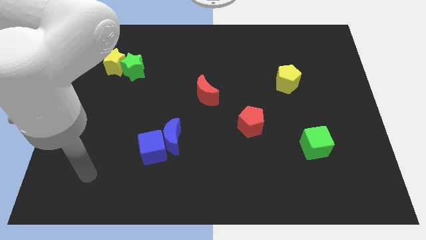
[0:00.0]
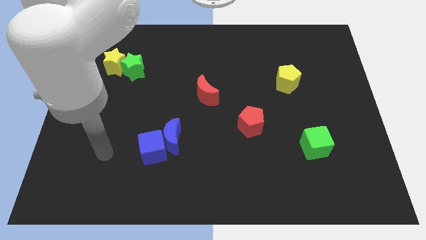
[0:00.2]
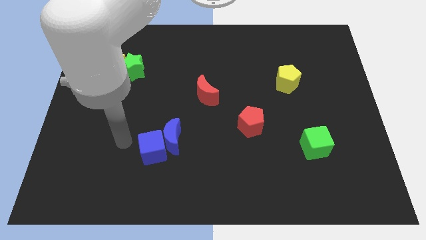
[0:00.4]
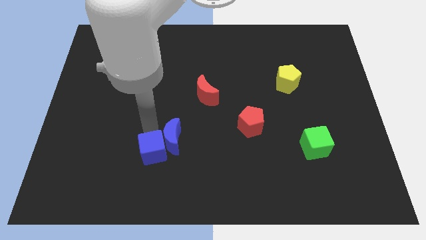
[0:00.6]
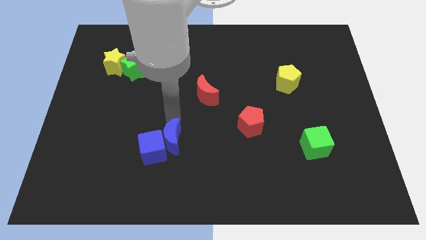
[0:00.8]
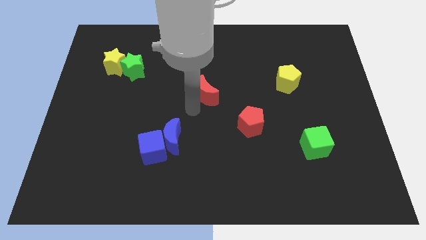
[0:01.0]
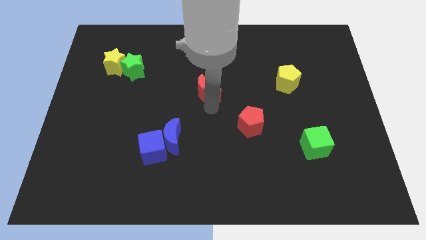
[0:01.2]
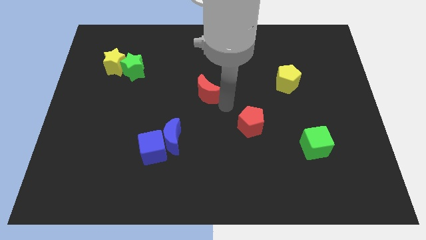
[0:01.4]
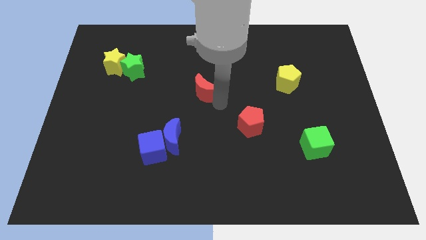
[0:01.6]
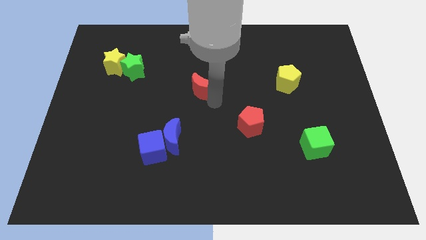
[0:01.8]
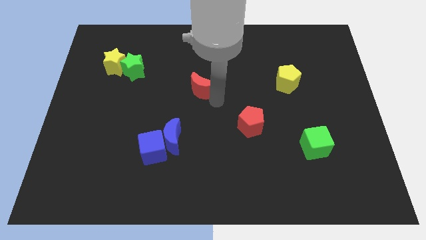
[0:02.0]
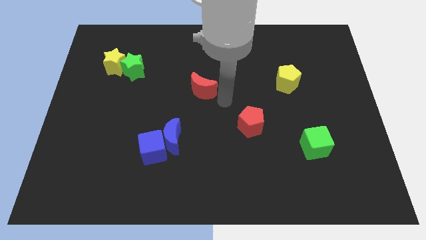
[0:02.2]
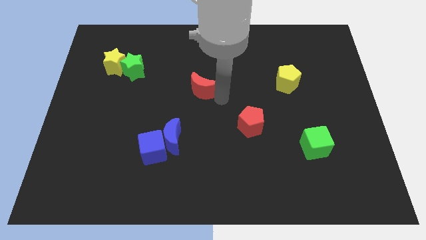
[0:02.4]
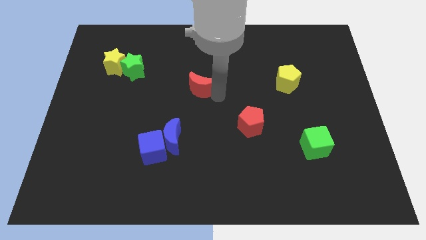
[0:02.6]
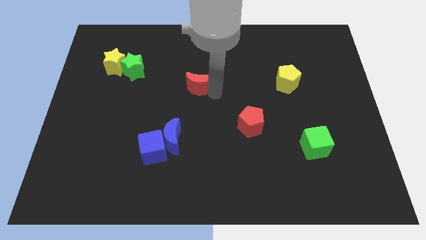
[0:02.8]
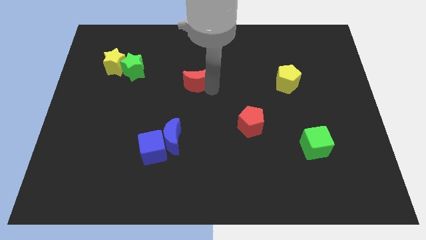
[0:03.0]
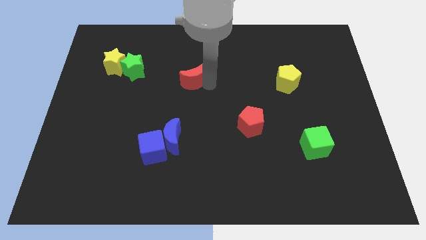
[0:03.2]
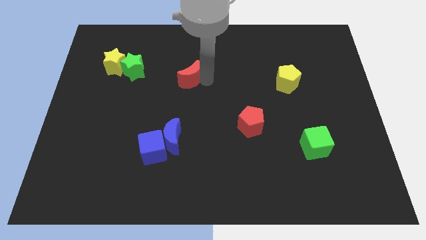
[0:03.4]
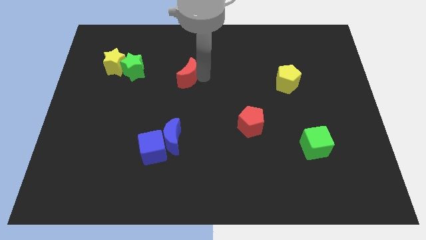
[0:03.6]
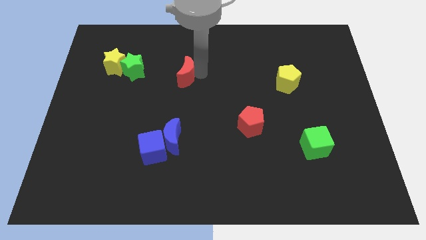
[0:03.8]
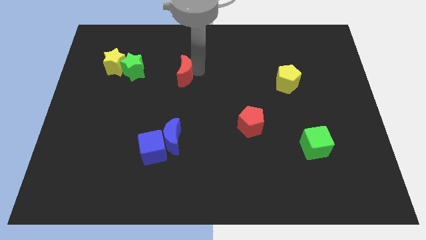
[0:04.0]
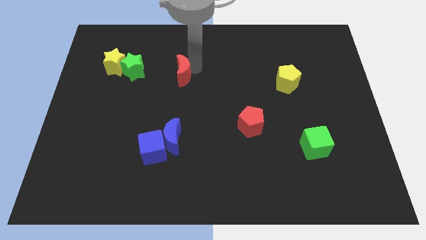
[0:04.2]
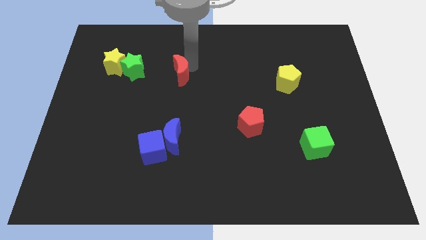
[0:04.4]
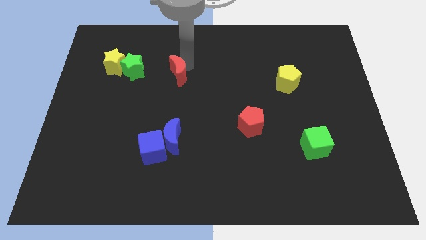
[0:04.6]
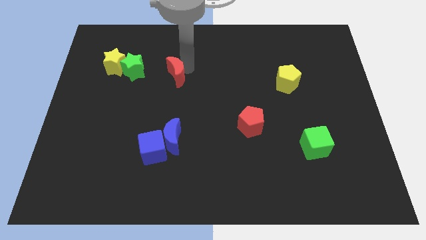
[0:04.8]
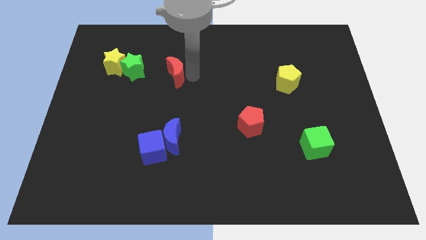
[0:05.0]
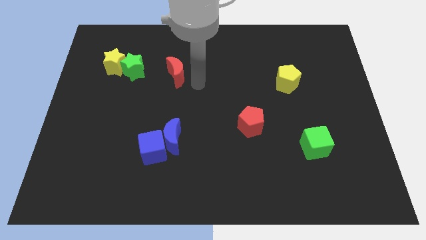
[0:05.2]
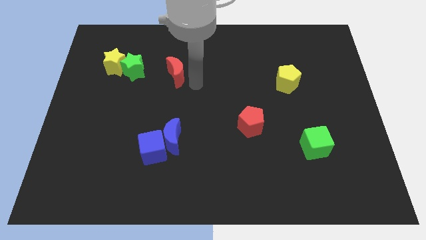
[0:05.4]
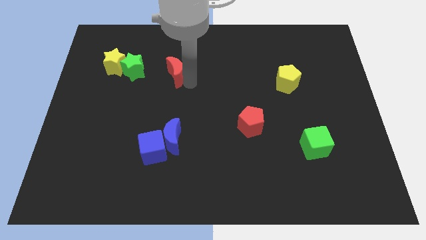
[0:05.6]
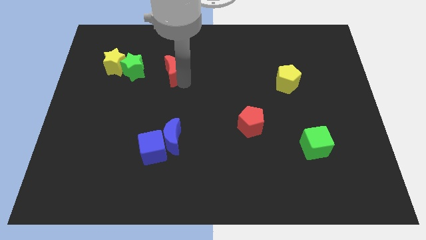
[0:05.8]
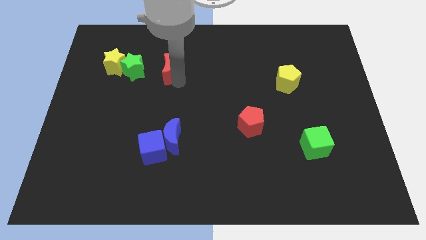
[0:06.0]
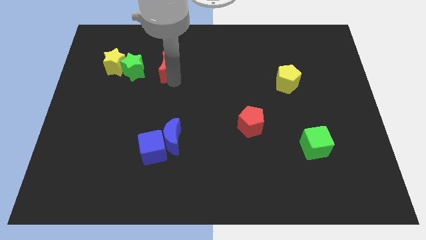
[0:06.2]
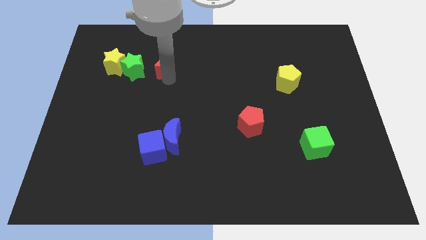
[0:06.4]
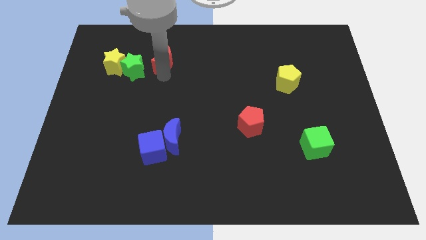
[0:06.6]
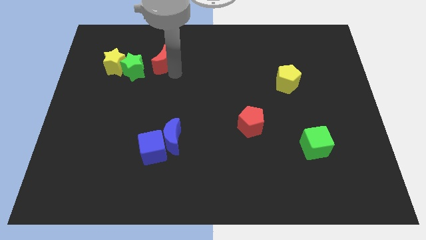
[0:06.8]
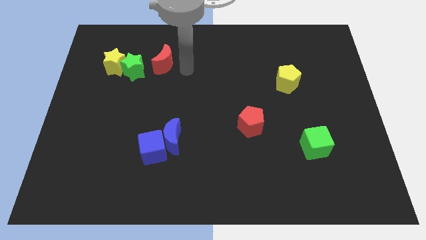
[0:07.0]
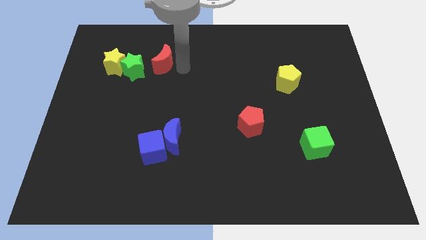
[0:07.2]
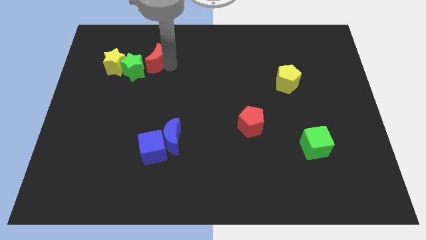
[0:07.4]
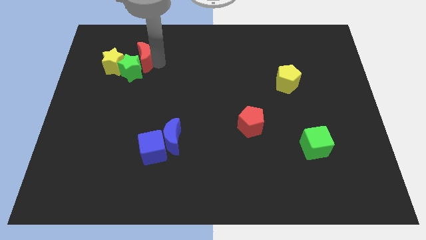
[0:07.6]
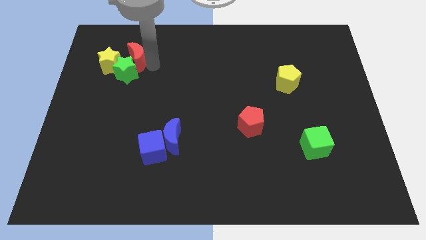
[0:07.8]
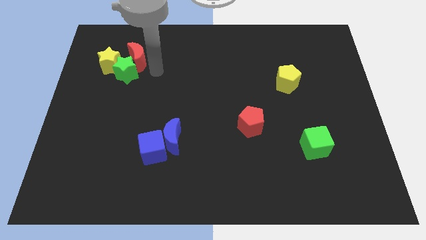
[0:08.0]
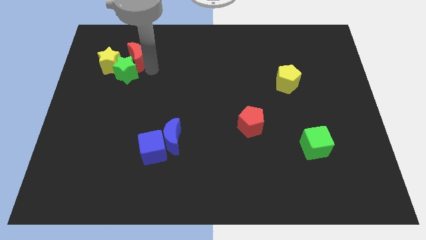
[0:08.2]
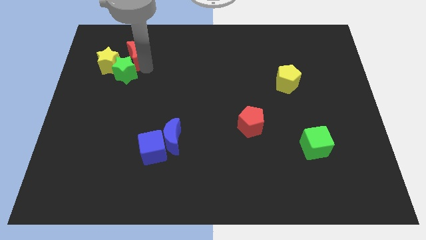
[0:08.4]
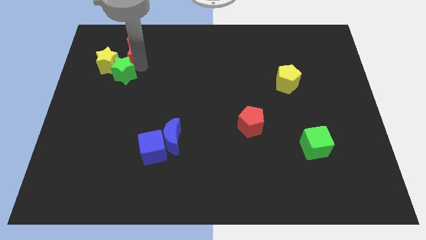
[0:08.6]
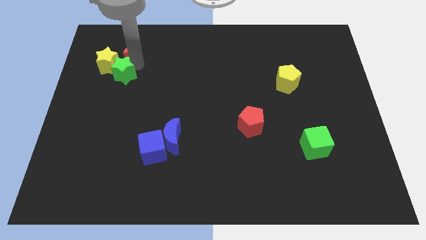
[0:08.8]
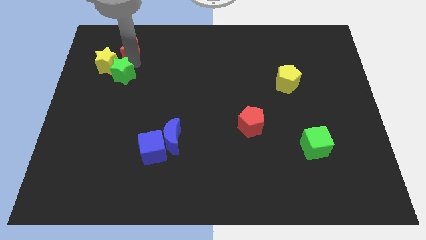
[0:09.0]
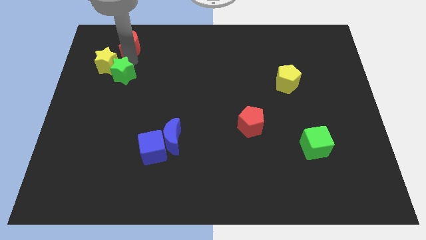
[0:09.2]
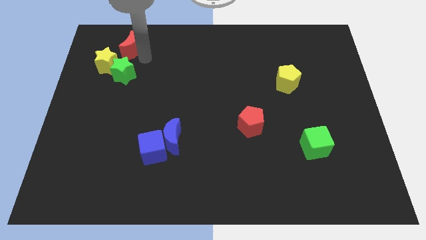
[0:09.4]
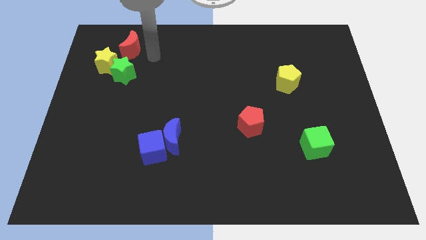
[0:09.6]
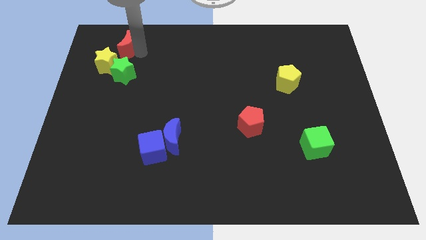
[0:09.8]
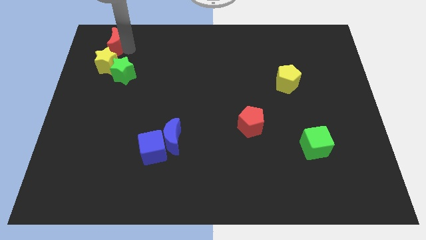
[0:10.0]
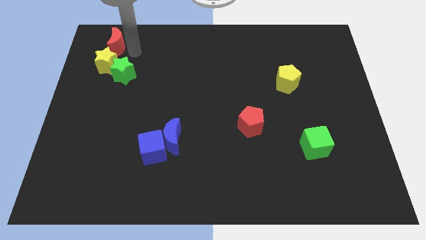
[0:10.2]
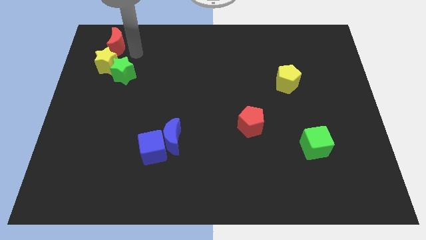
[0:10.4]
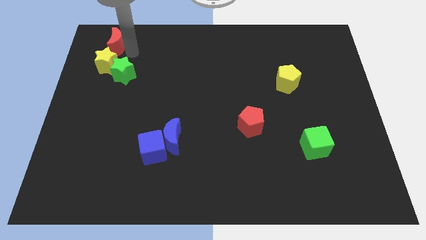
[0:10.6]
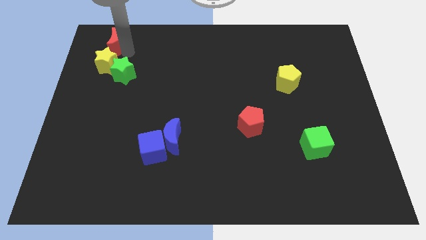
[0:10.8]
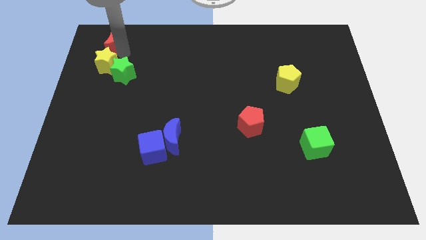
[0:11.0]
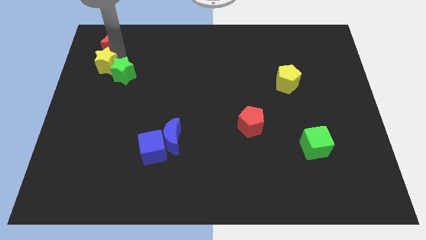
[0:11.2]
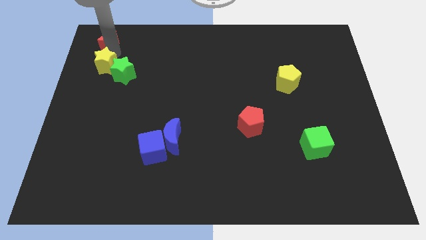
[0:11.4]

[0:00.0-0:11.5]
put the red moon to the top left

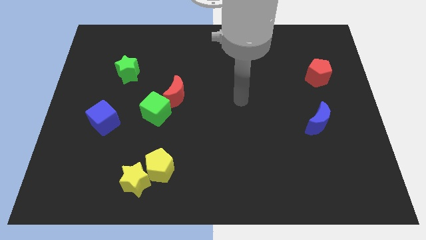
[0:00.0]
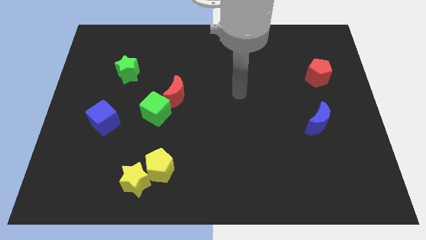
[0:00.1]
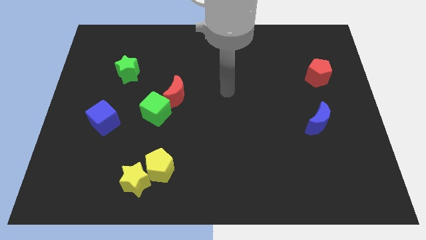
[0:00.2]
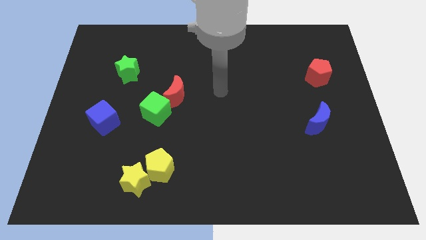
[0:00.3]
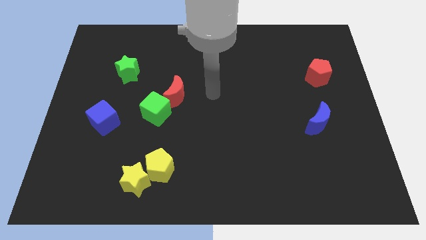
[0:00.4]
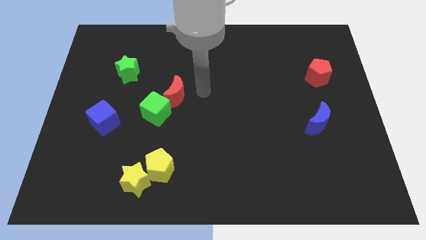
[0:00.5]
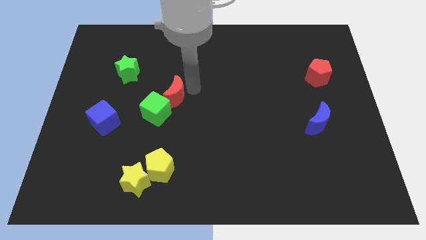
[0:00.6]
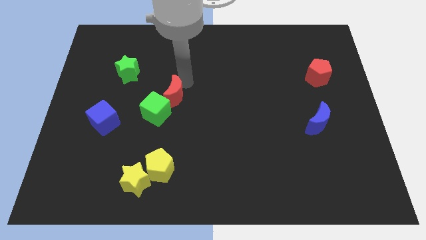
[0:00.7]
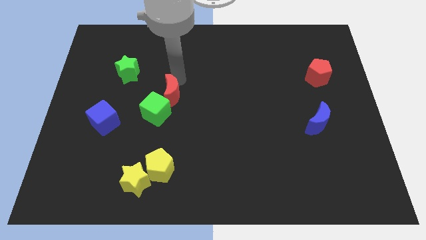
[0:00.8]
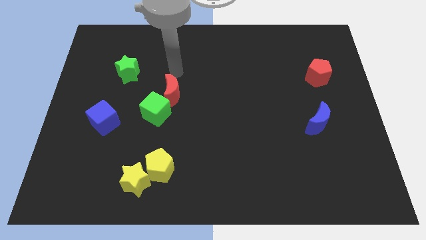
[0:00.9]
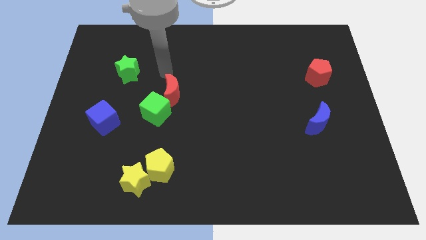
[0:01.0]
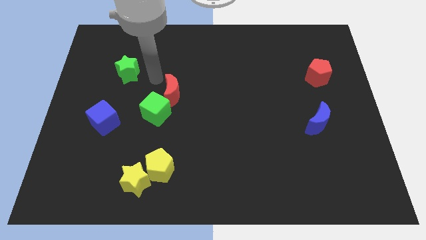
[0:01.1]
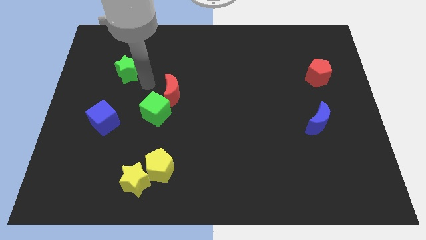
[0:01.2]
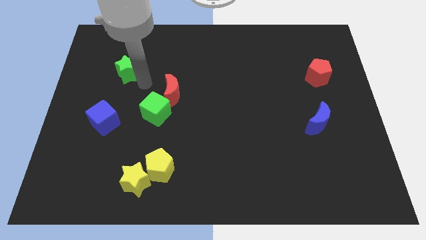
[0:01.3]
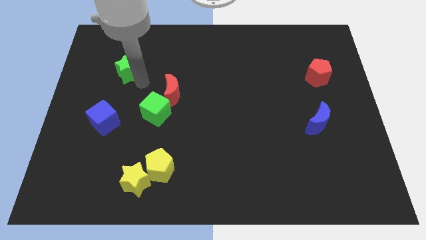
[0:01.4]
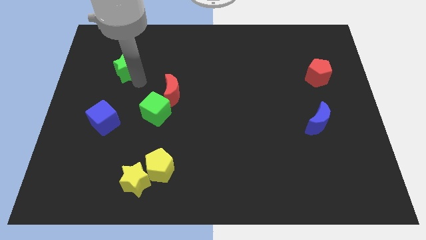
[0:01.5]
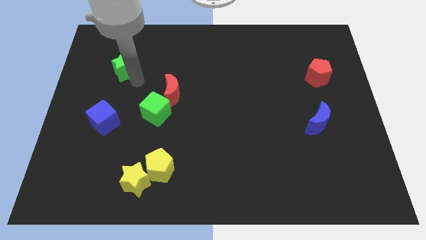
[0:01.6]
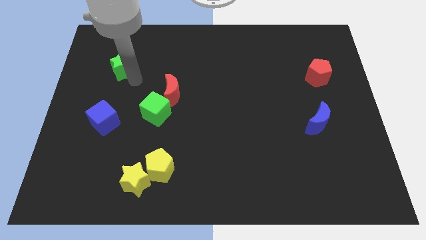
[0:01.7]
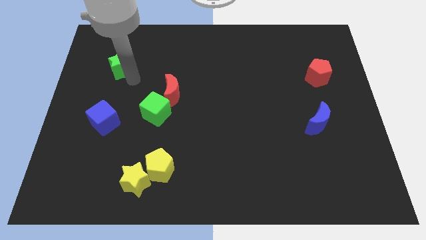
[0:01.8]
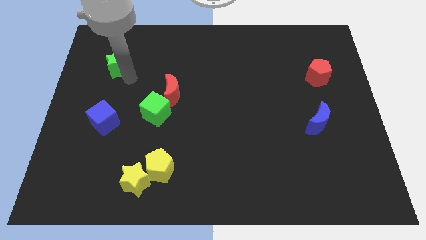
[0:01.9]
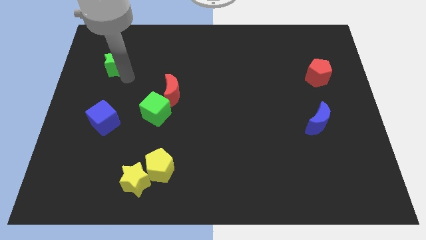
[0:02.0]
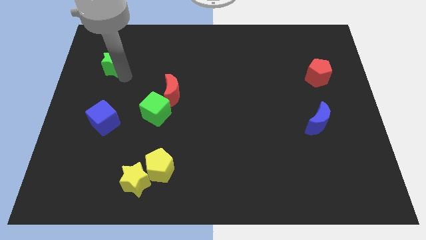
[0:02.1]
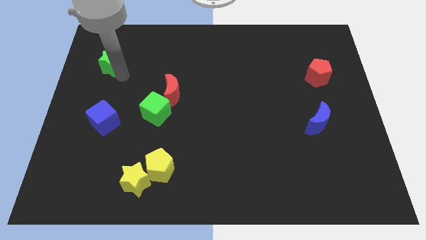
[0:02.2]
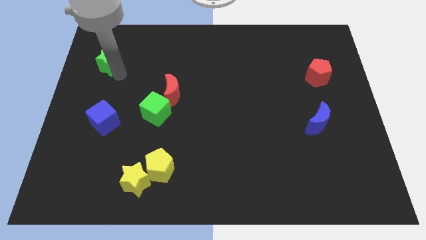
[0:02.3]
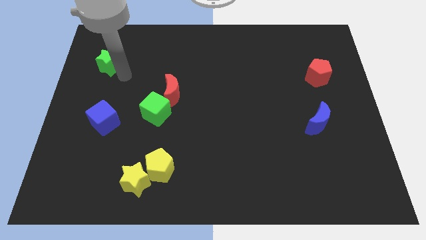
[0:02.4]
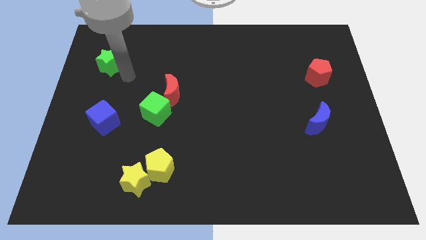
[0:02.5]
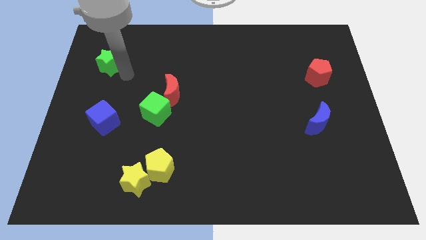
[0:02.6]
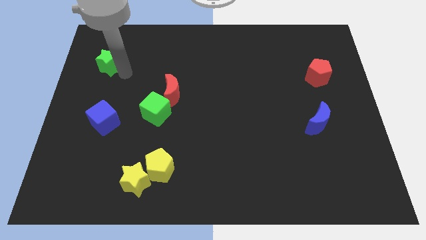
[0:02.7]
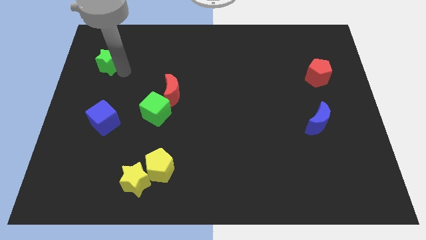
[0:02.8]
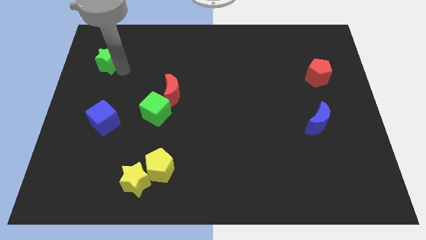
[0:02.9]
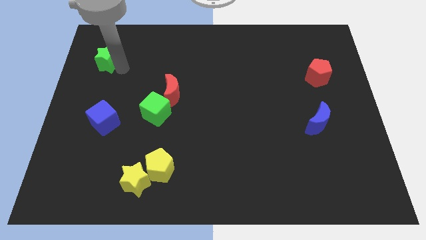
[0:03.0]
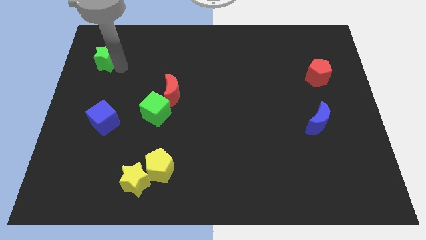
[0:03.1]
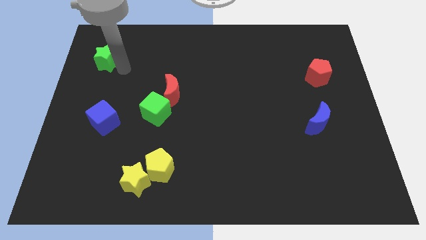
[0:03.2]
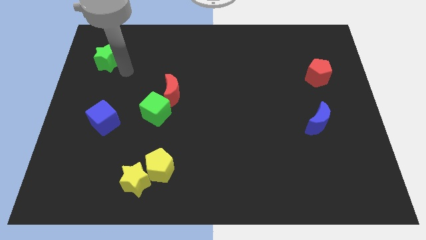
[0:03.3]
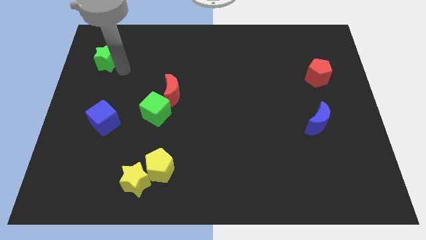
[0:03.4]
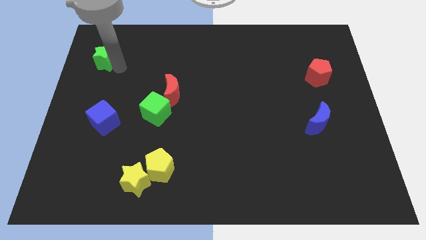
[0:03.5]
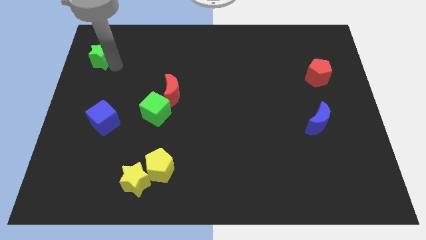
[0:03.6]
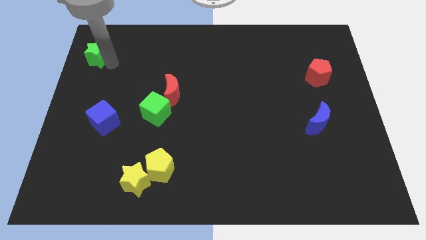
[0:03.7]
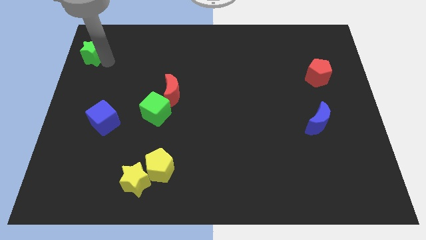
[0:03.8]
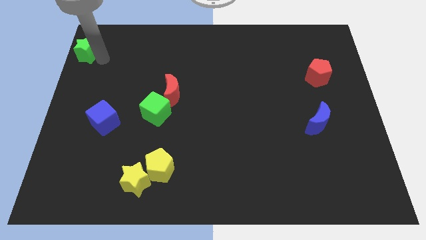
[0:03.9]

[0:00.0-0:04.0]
put the green star to the top left of the board
